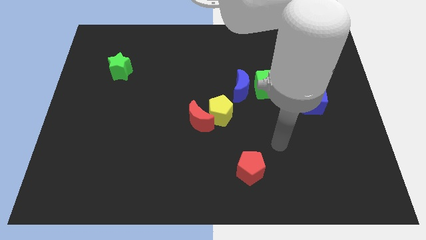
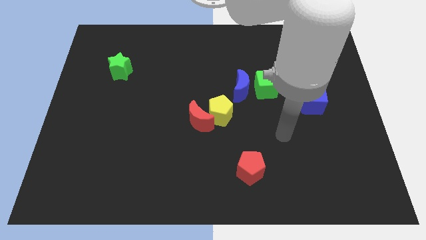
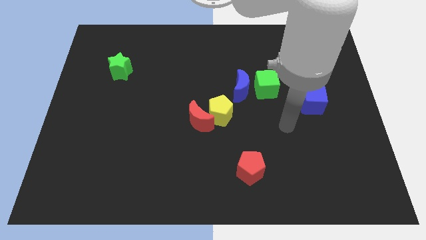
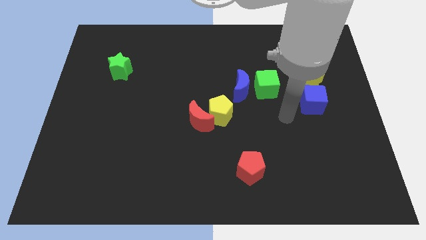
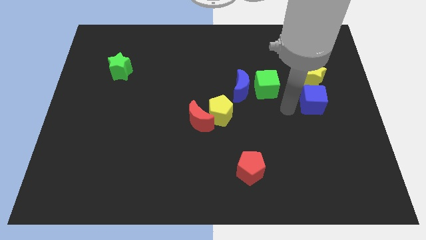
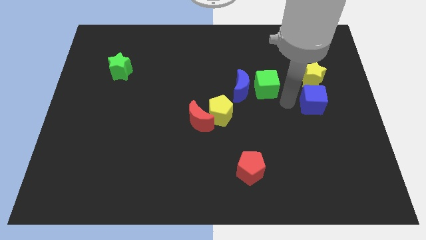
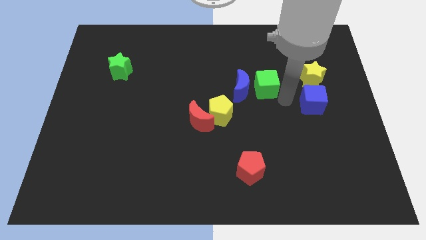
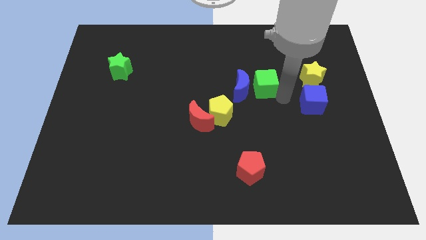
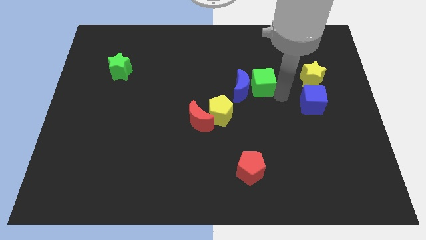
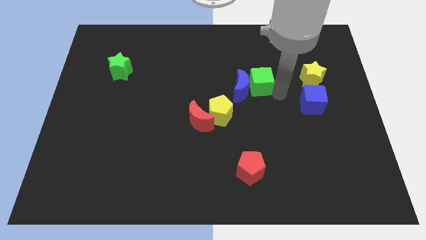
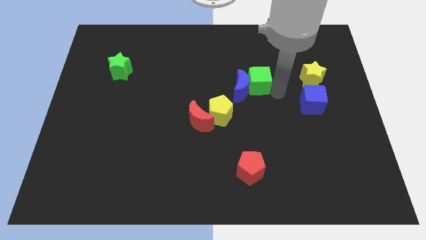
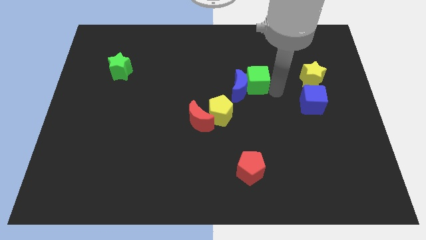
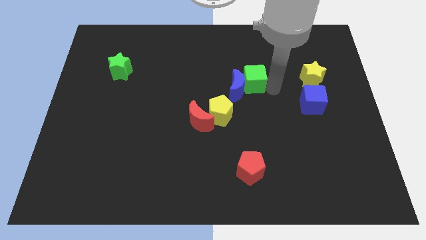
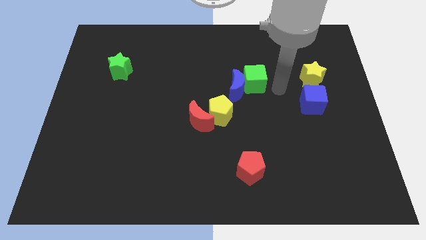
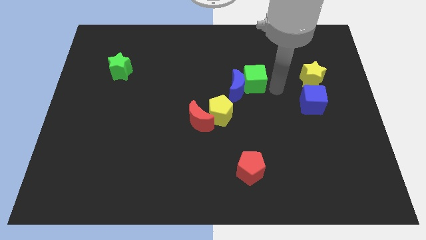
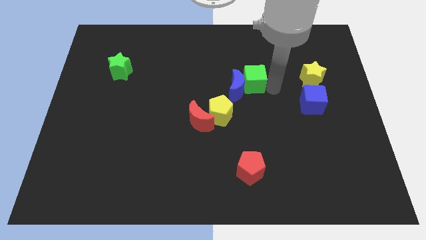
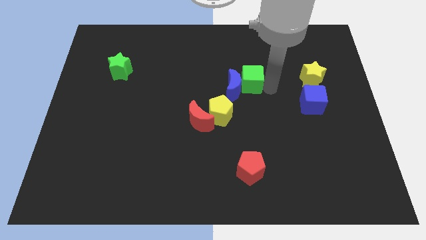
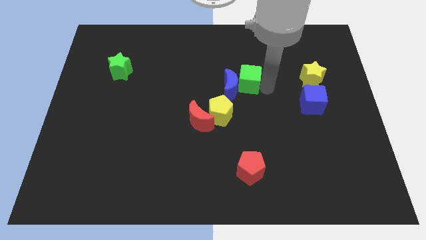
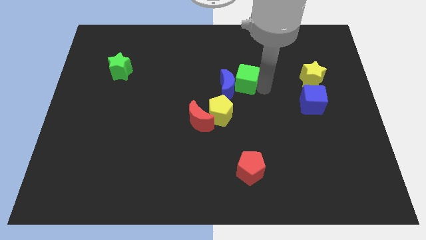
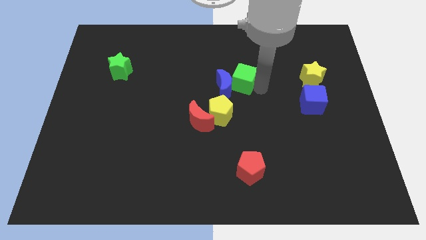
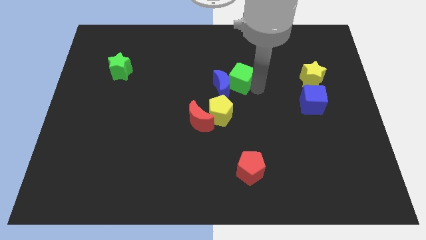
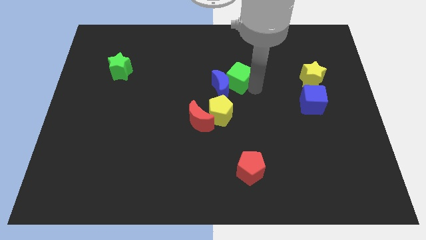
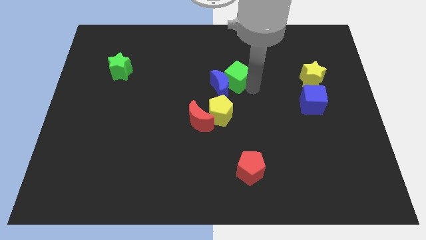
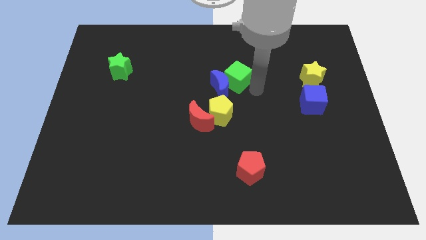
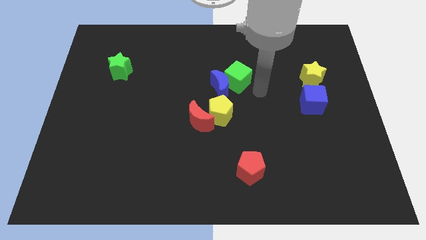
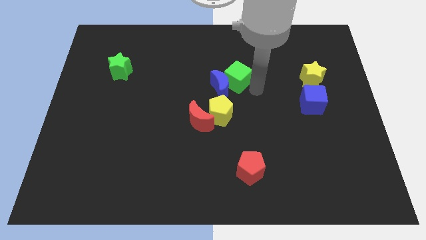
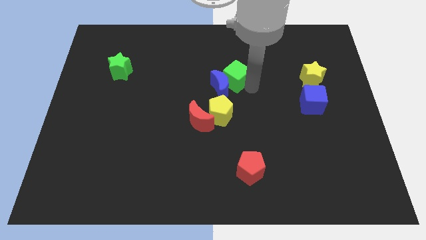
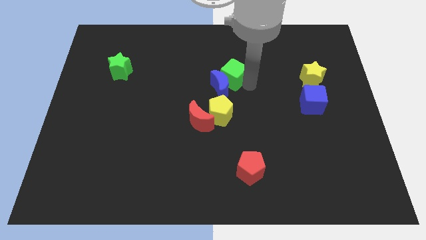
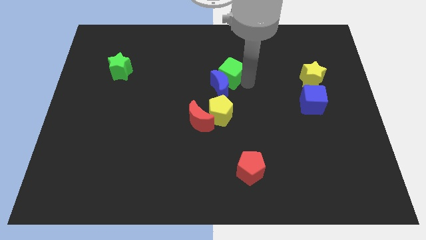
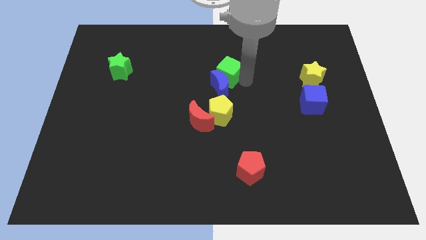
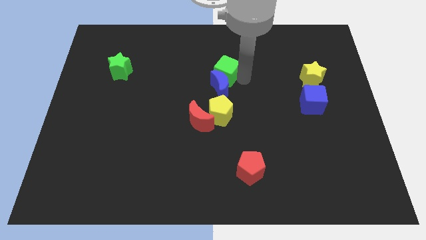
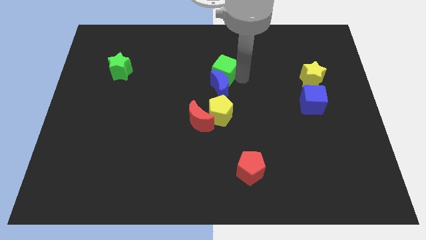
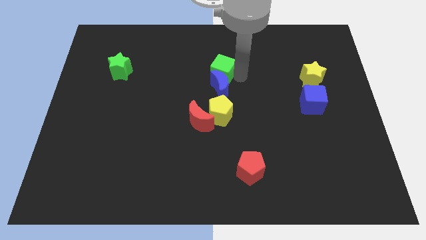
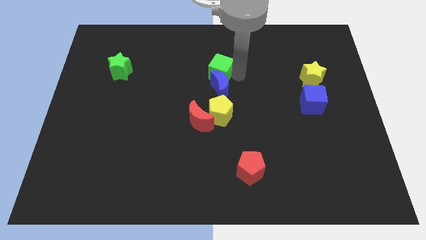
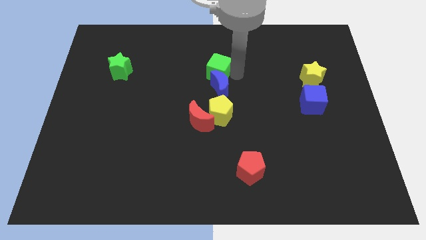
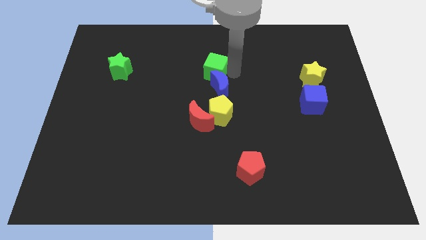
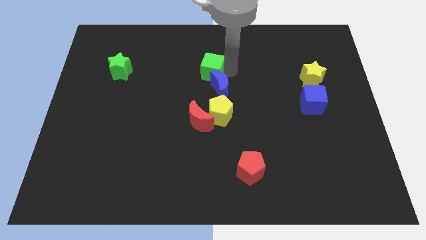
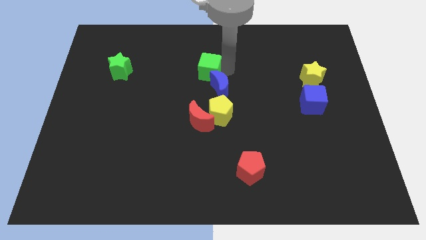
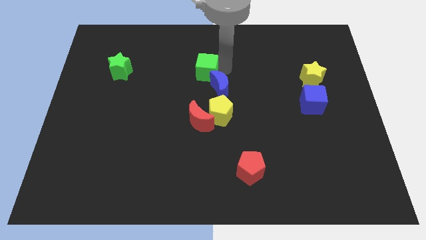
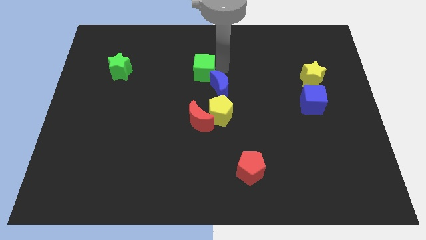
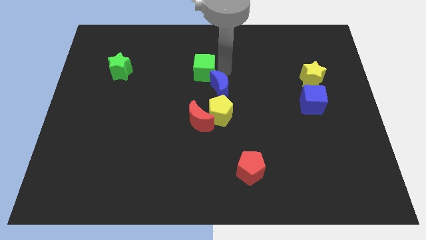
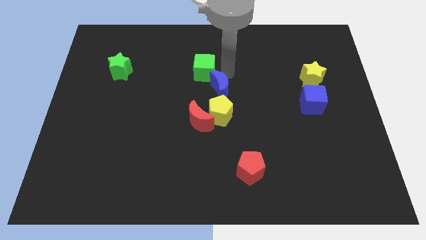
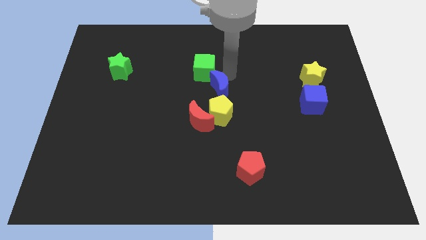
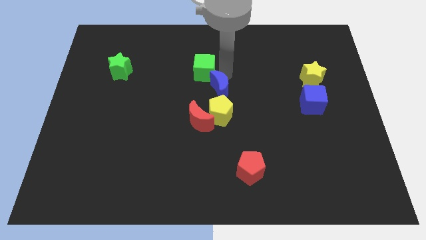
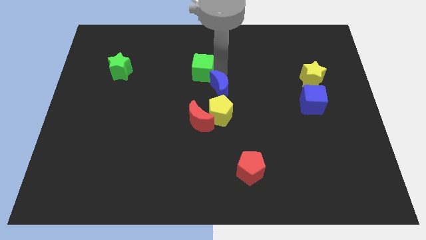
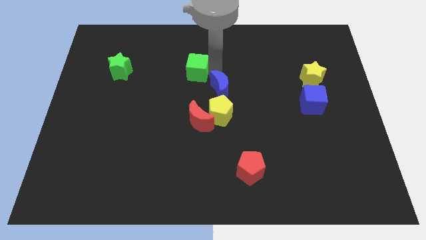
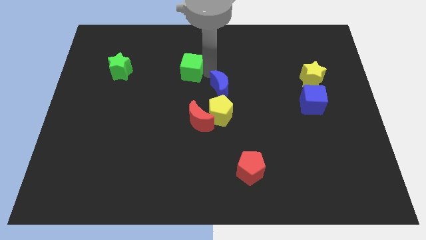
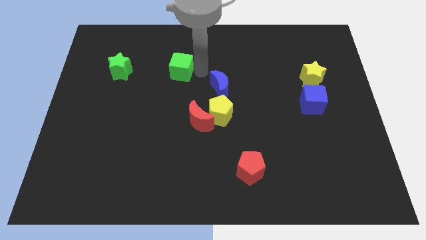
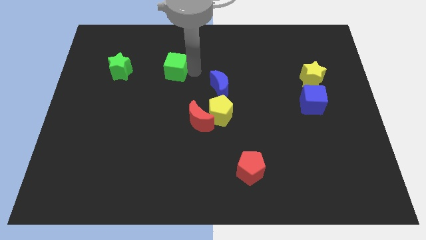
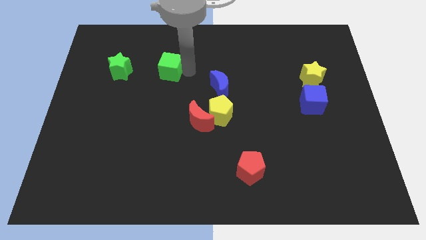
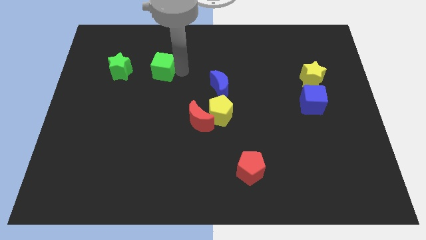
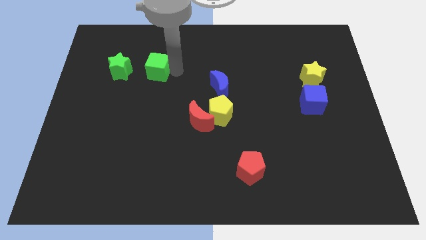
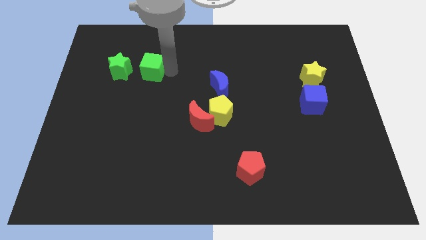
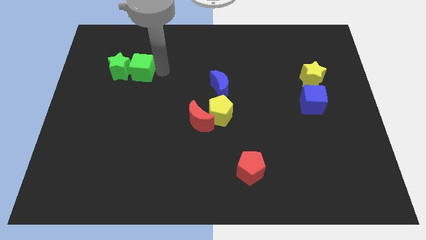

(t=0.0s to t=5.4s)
put the green cube to the green star

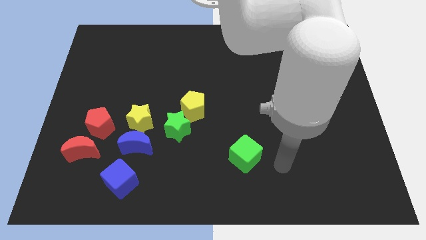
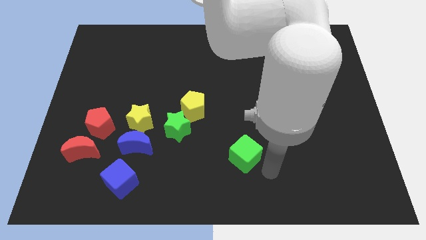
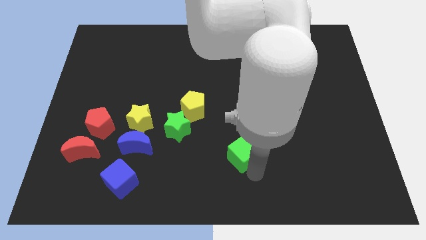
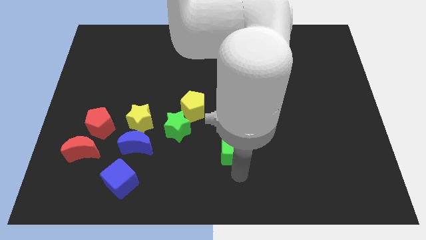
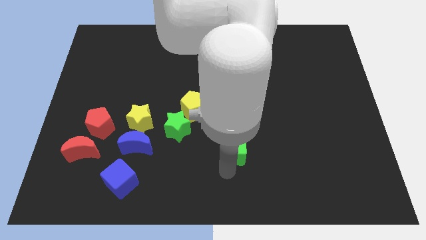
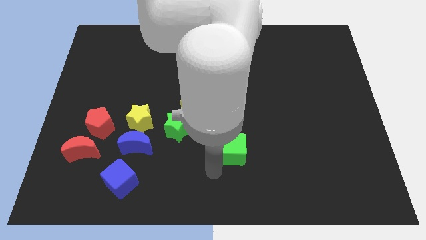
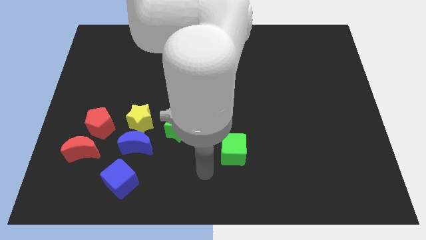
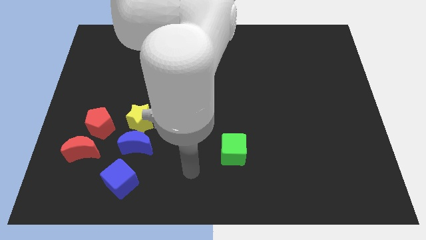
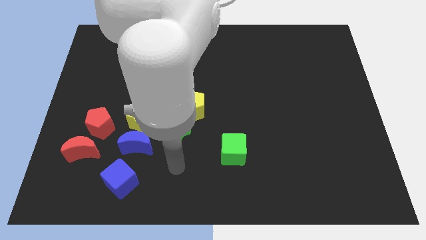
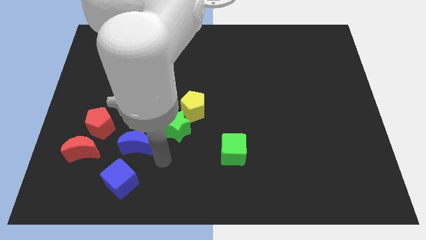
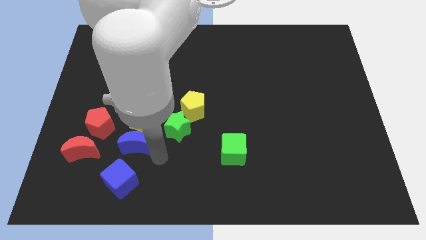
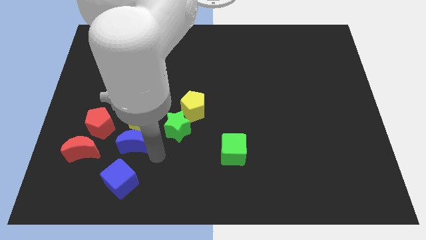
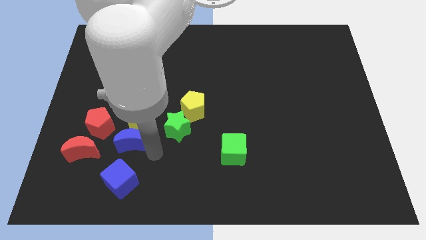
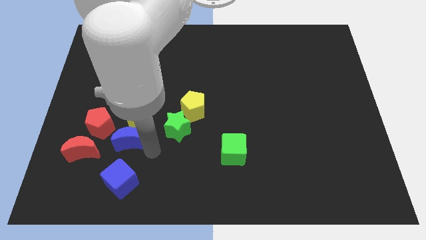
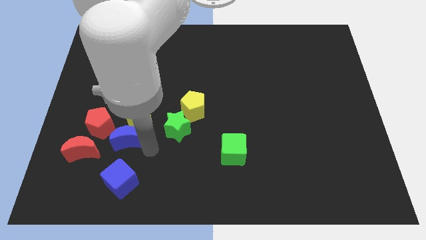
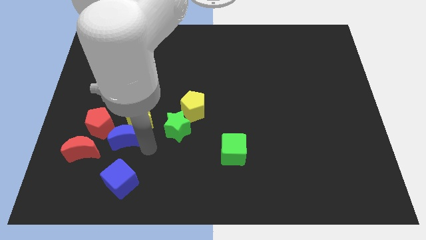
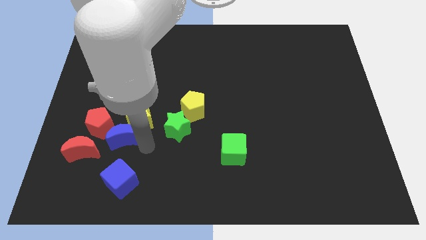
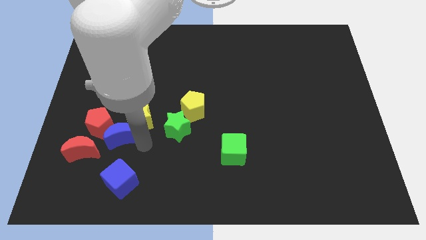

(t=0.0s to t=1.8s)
push the blue moon next to the red pentagon

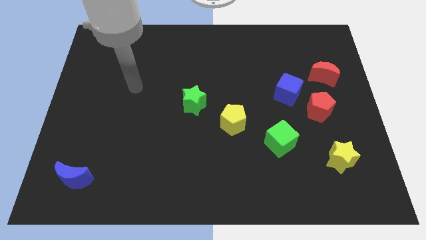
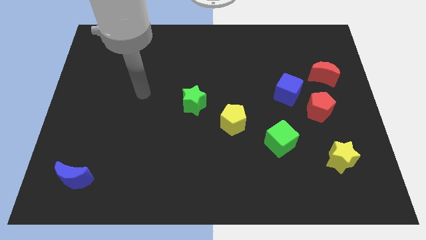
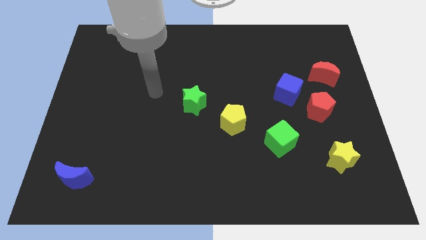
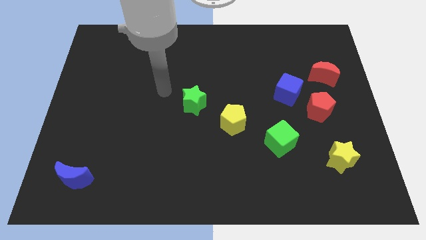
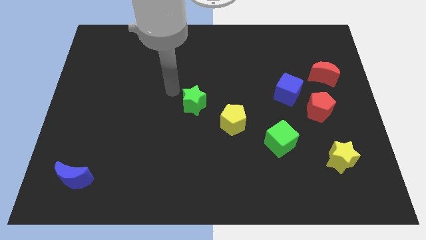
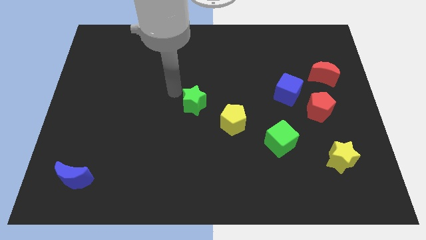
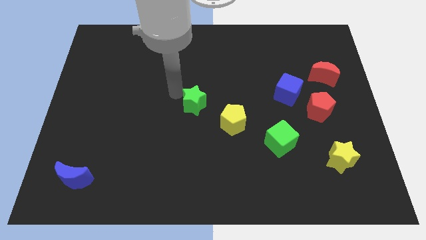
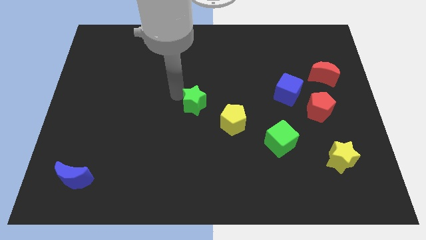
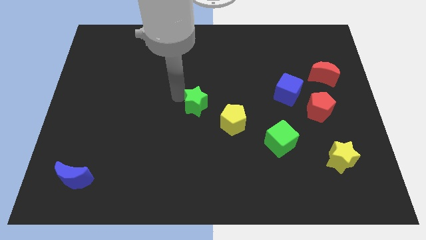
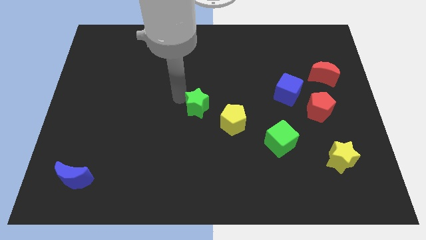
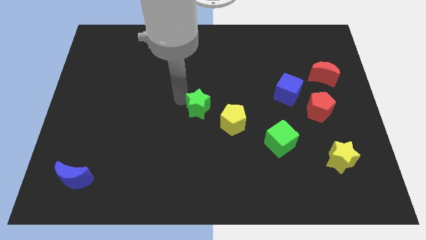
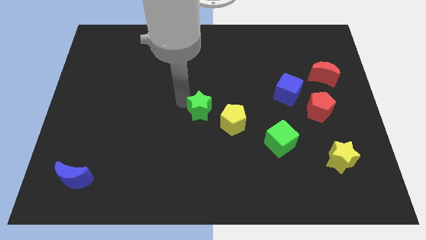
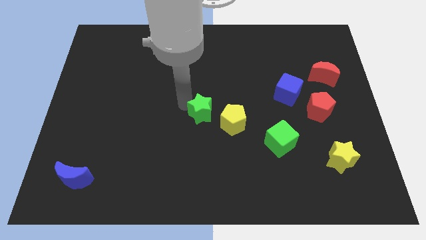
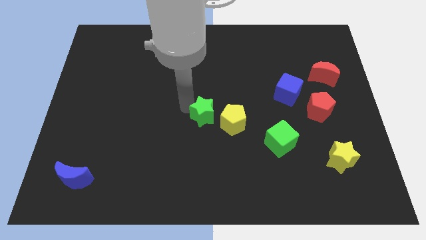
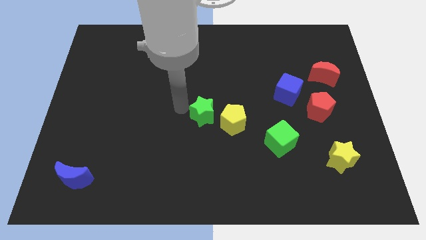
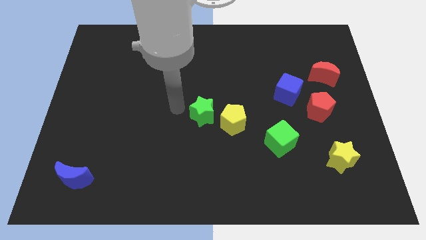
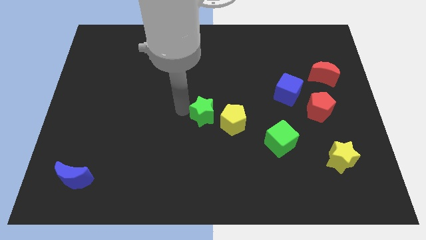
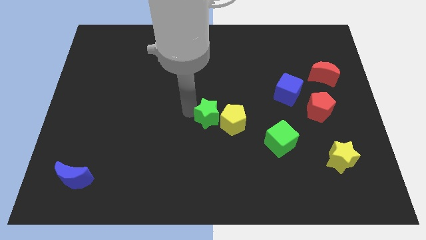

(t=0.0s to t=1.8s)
move the green star to the yellow pentagon
